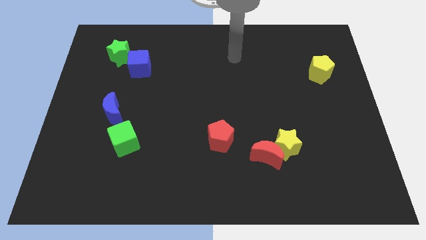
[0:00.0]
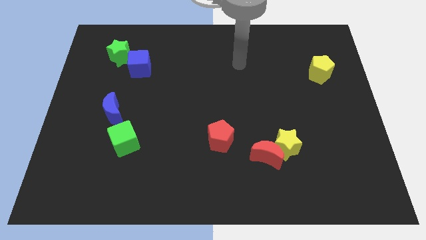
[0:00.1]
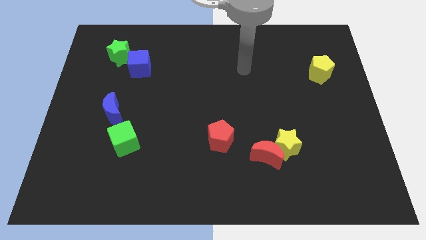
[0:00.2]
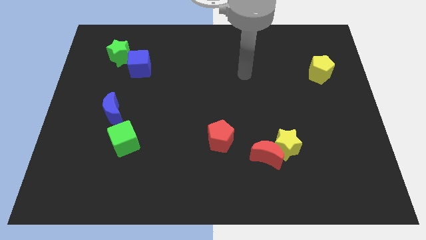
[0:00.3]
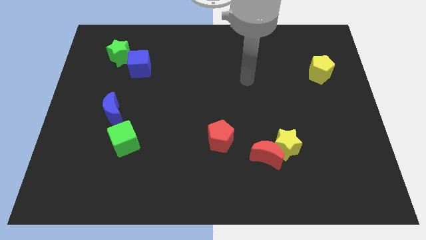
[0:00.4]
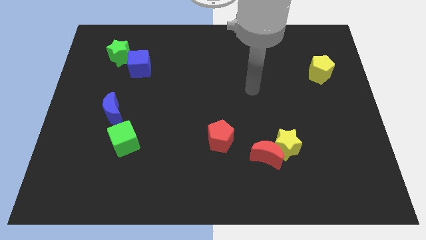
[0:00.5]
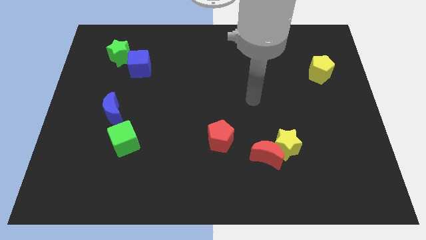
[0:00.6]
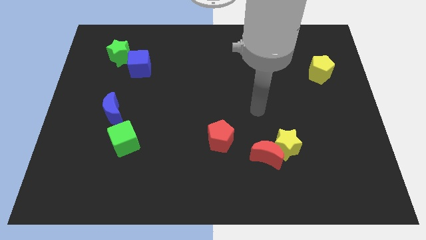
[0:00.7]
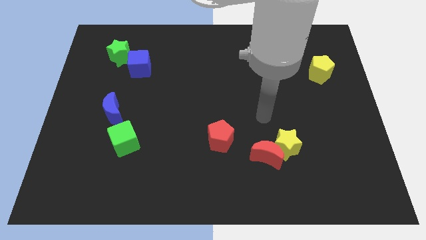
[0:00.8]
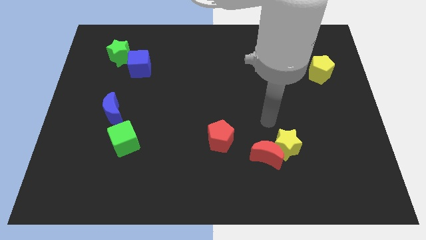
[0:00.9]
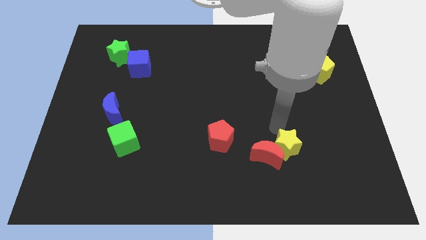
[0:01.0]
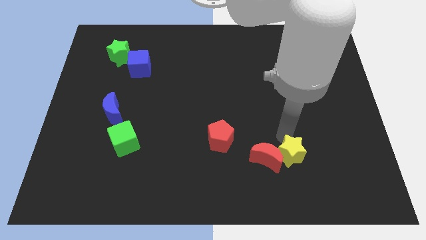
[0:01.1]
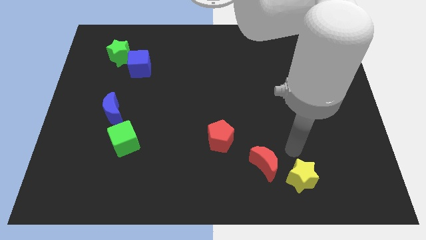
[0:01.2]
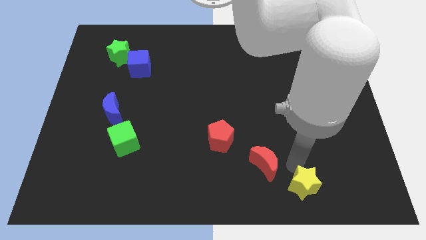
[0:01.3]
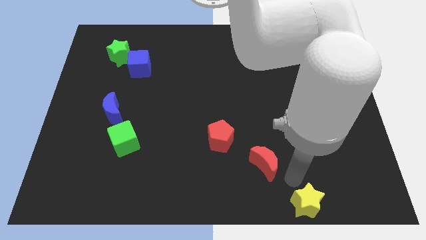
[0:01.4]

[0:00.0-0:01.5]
pull the red moon apart from the yellow star

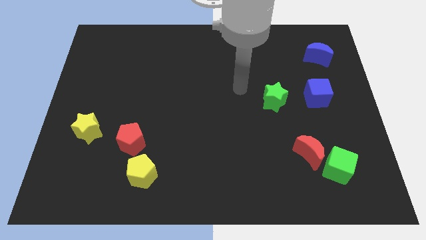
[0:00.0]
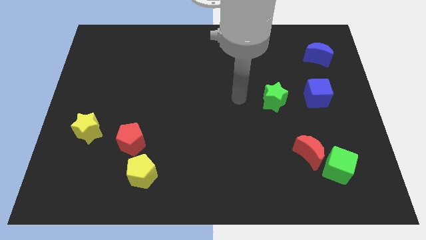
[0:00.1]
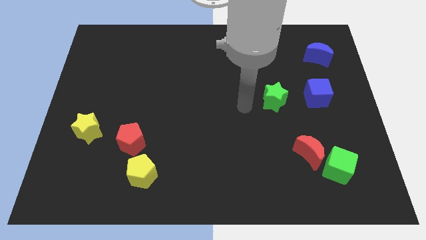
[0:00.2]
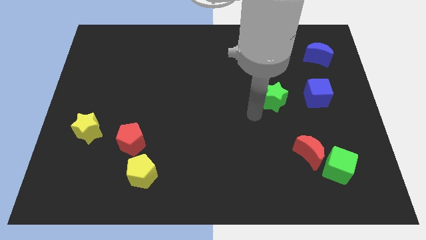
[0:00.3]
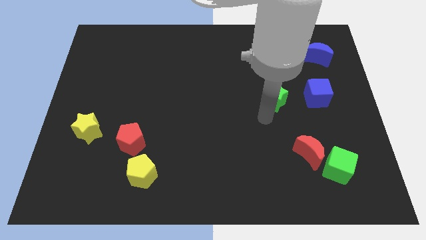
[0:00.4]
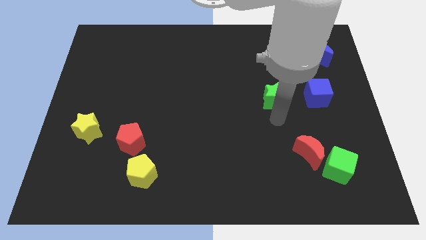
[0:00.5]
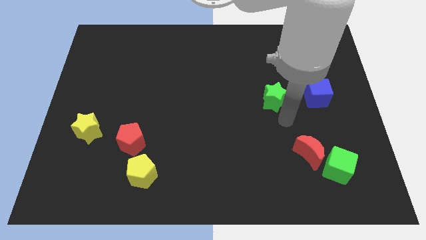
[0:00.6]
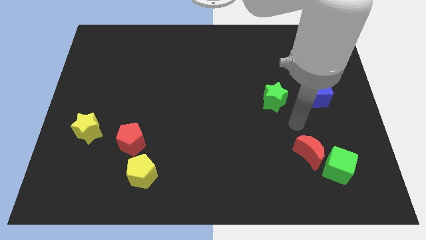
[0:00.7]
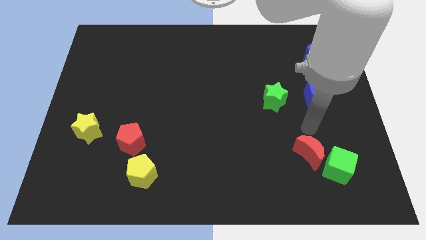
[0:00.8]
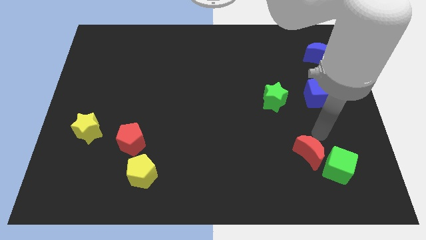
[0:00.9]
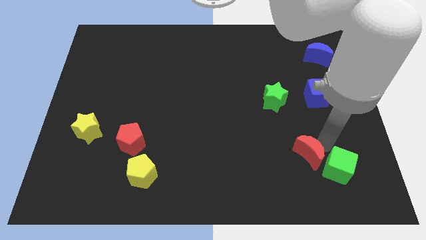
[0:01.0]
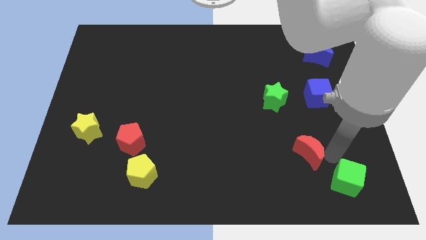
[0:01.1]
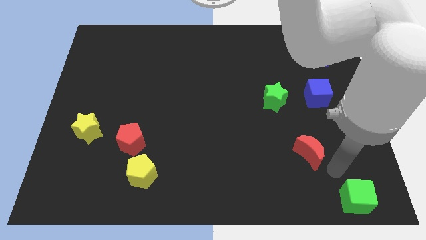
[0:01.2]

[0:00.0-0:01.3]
separate the red moon from the green cube

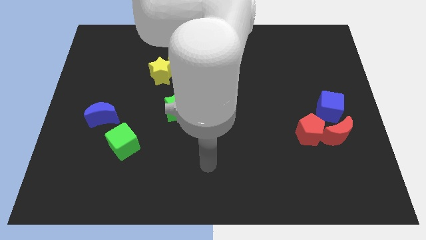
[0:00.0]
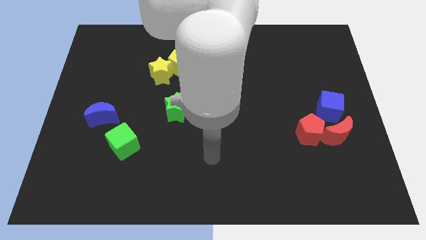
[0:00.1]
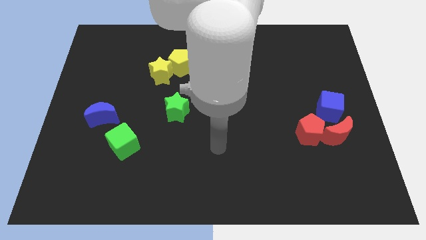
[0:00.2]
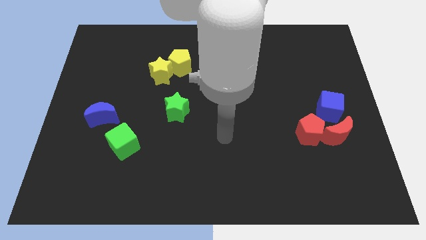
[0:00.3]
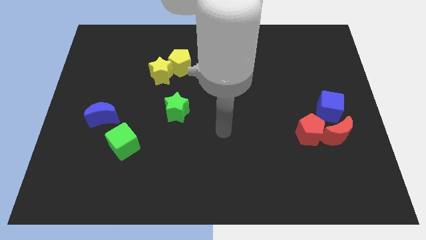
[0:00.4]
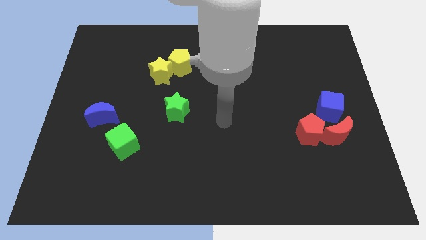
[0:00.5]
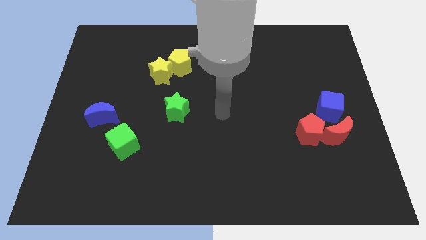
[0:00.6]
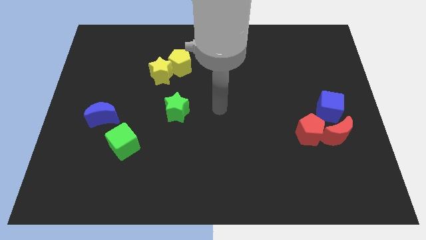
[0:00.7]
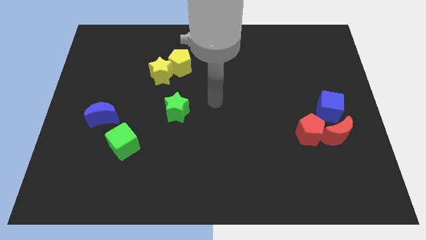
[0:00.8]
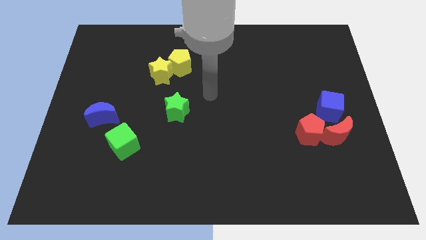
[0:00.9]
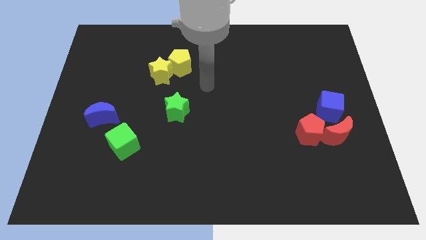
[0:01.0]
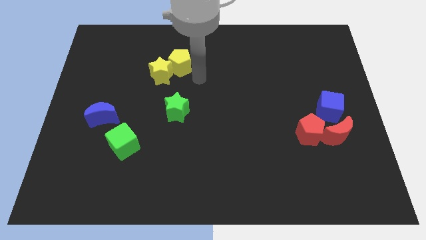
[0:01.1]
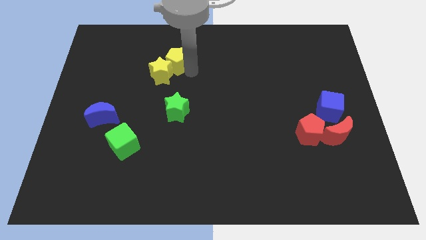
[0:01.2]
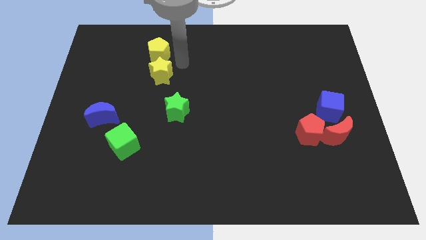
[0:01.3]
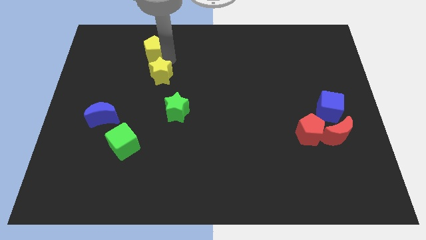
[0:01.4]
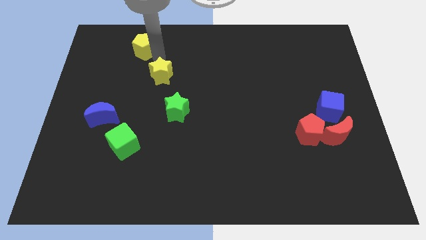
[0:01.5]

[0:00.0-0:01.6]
separate the yellow star from the yellow pentagon

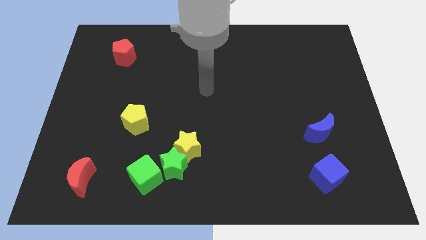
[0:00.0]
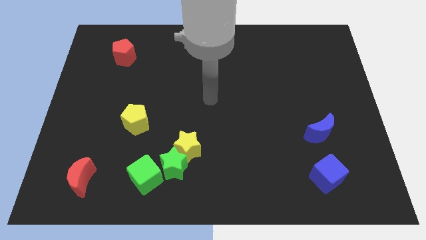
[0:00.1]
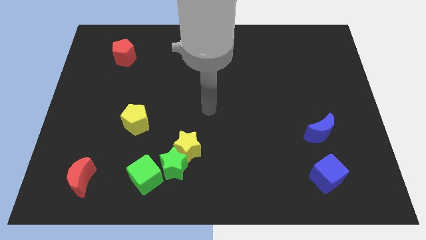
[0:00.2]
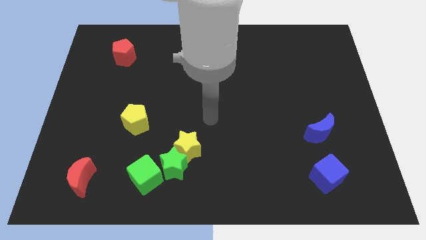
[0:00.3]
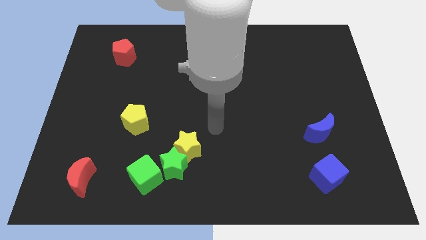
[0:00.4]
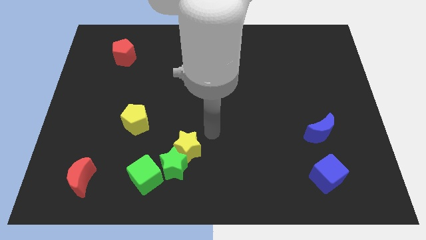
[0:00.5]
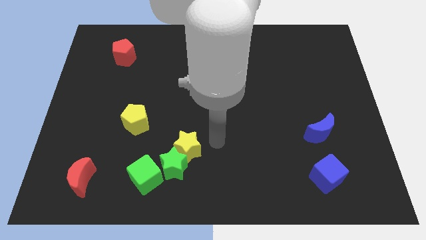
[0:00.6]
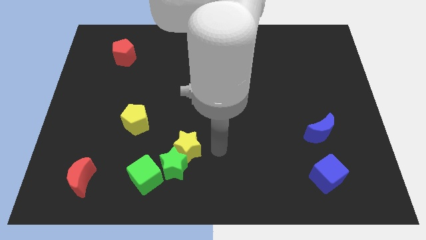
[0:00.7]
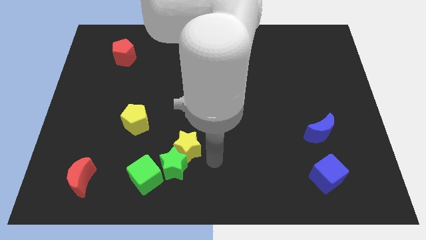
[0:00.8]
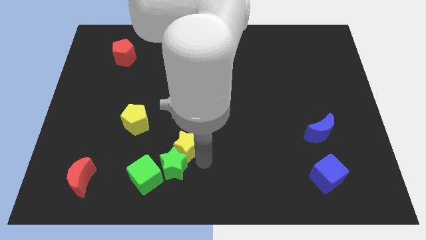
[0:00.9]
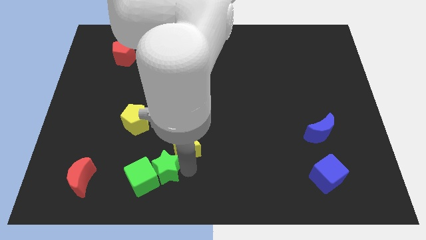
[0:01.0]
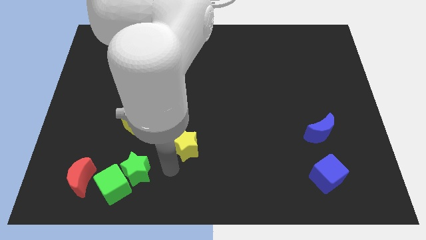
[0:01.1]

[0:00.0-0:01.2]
separate the yellow star from the green star

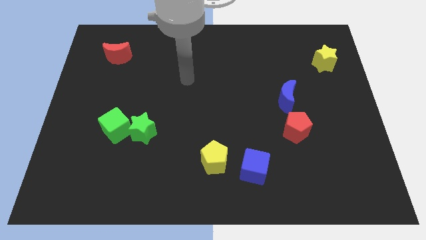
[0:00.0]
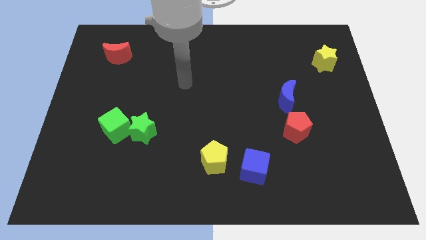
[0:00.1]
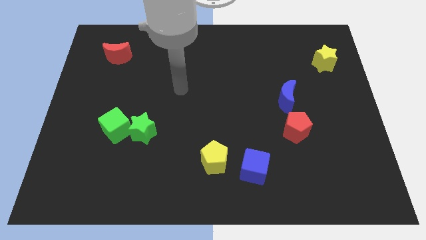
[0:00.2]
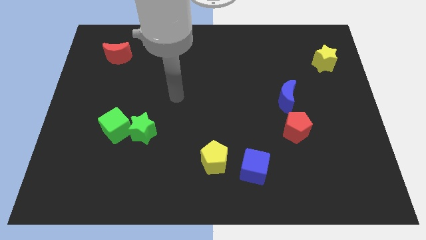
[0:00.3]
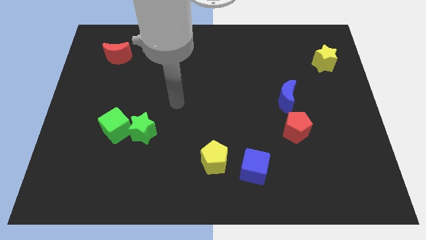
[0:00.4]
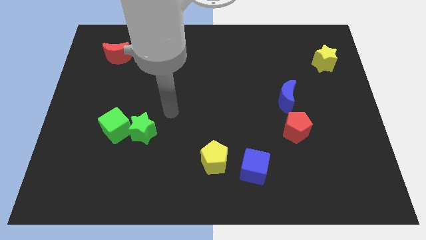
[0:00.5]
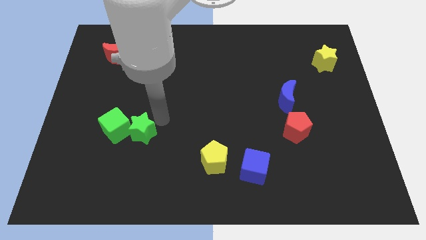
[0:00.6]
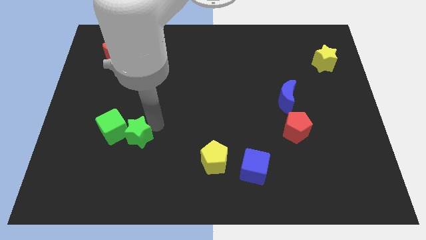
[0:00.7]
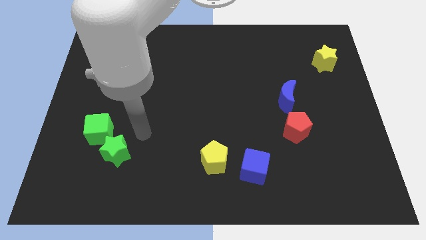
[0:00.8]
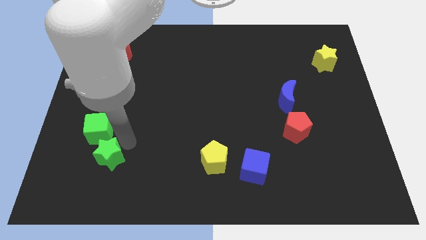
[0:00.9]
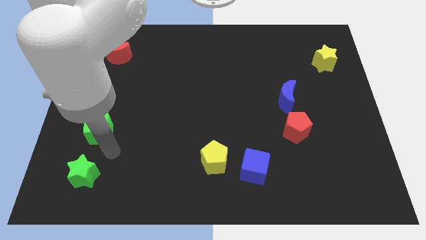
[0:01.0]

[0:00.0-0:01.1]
move the green cube away from the green star

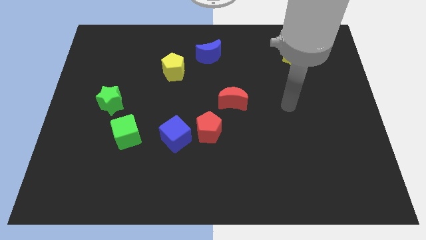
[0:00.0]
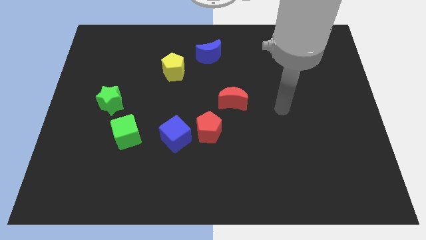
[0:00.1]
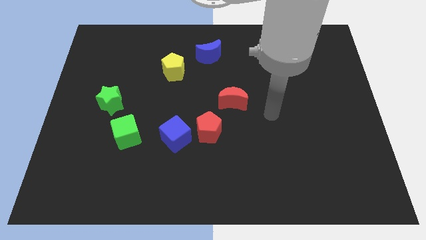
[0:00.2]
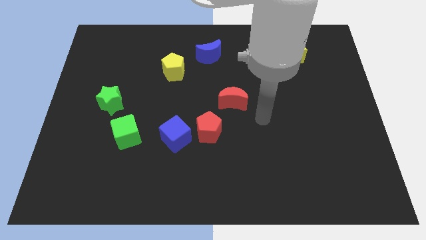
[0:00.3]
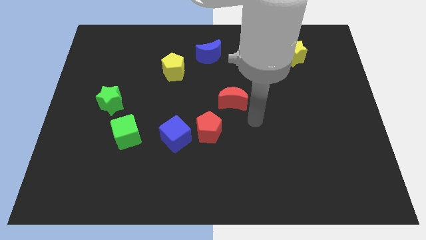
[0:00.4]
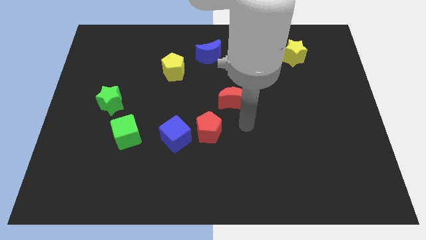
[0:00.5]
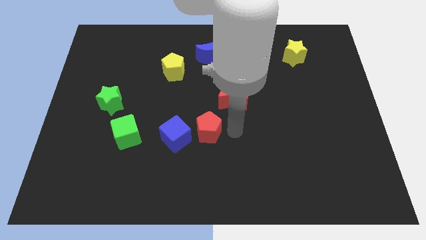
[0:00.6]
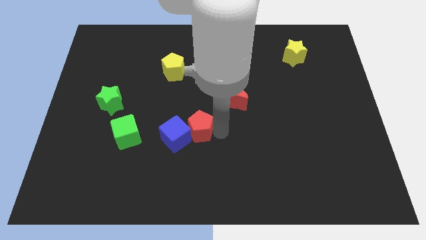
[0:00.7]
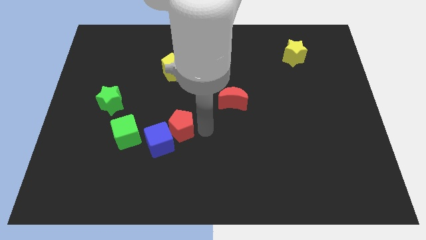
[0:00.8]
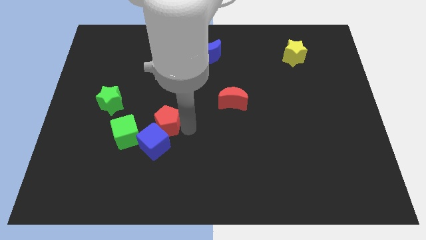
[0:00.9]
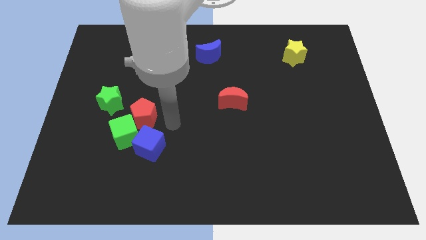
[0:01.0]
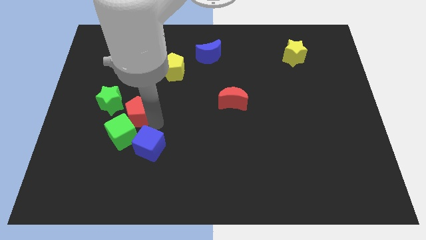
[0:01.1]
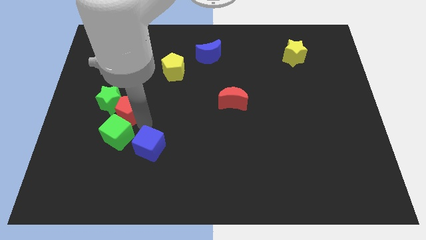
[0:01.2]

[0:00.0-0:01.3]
move the blue cube away from the red pentagon

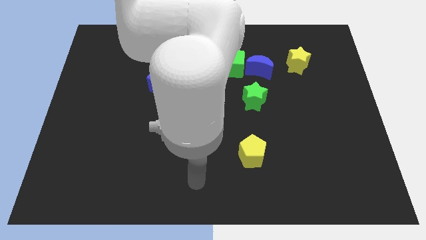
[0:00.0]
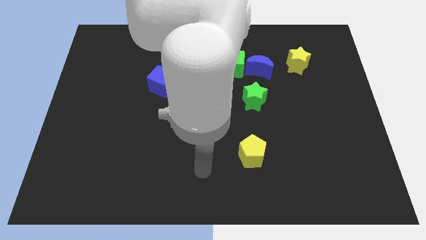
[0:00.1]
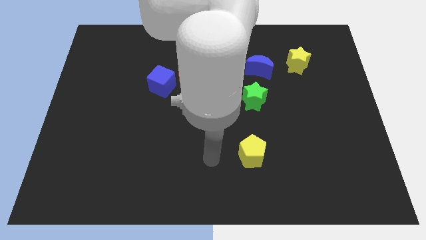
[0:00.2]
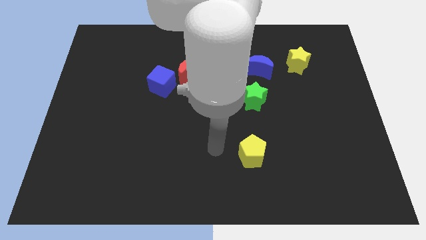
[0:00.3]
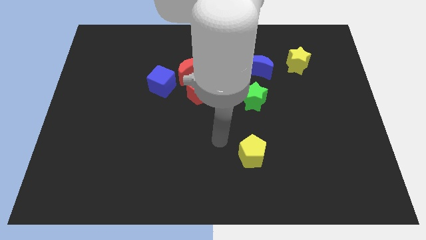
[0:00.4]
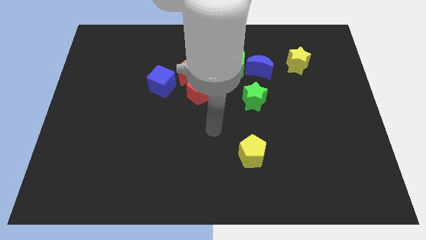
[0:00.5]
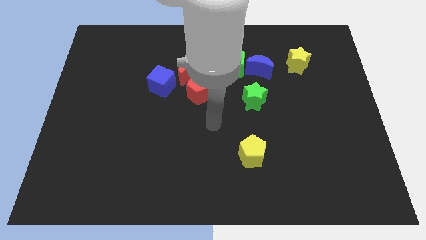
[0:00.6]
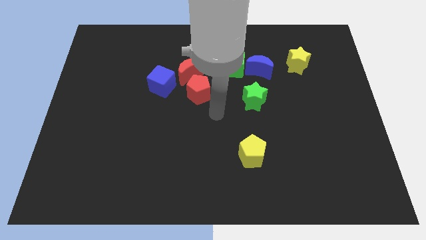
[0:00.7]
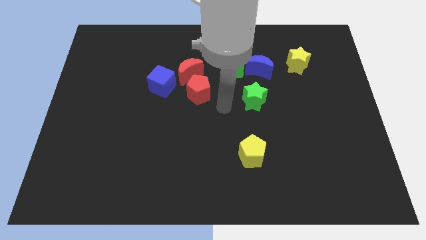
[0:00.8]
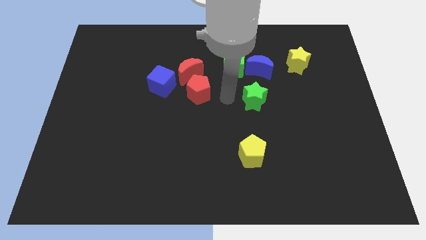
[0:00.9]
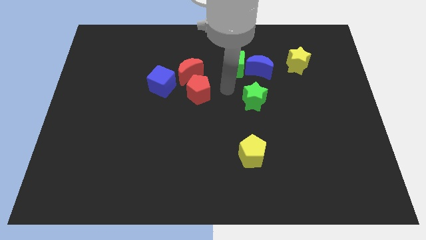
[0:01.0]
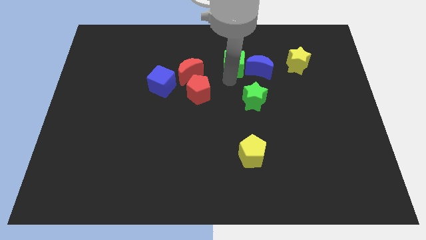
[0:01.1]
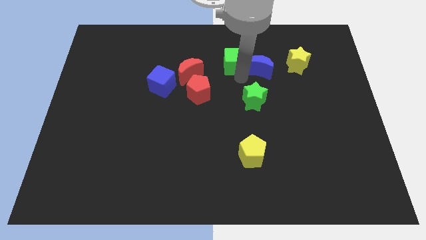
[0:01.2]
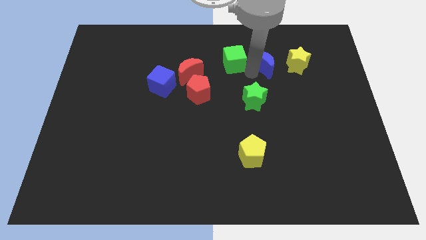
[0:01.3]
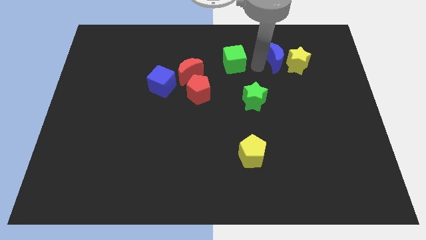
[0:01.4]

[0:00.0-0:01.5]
move the green cube away from the blue moon
